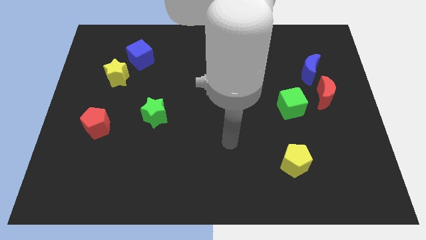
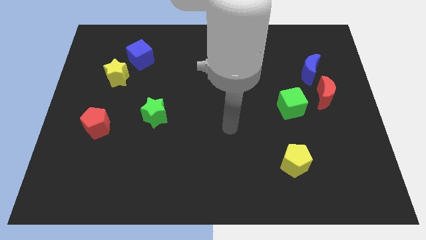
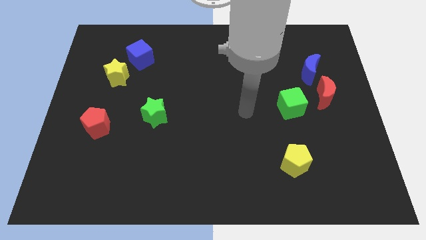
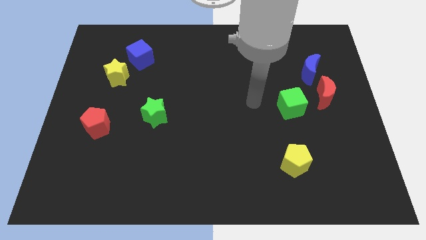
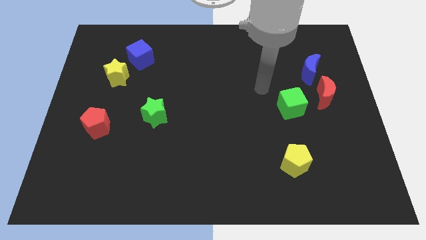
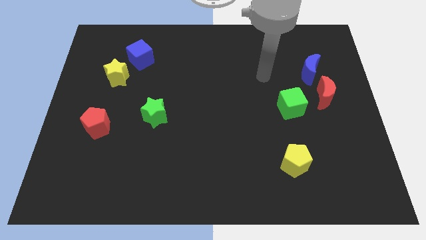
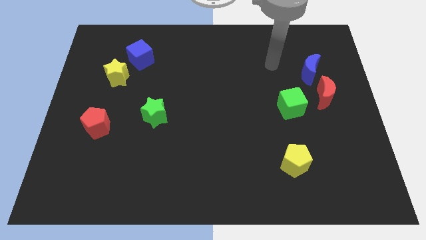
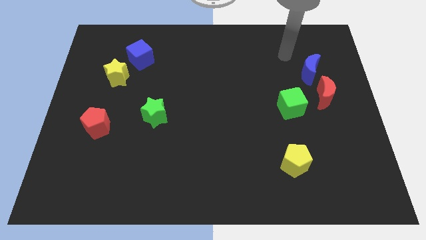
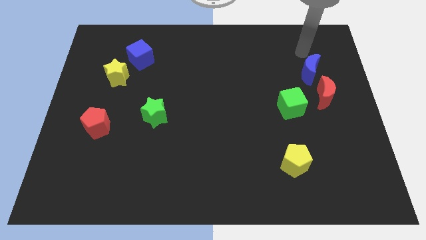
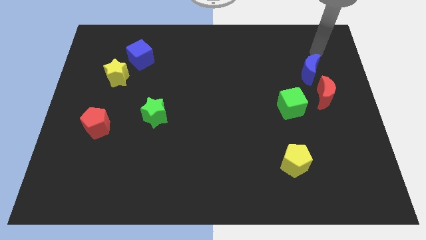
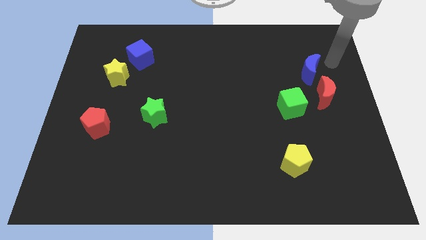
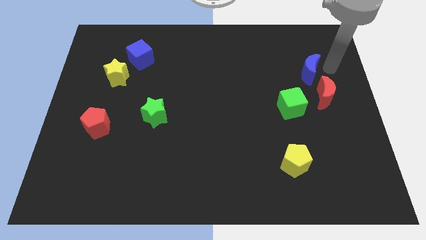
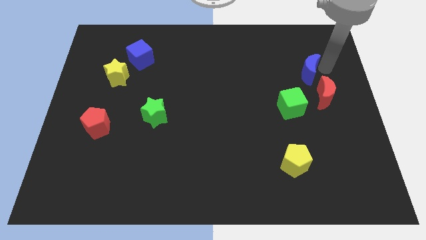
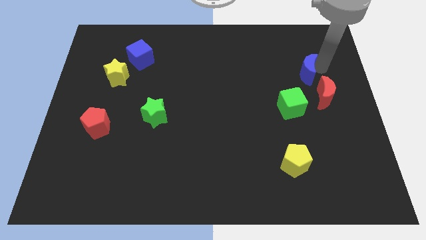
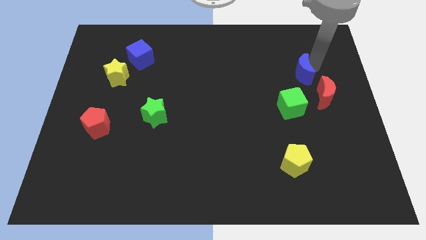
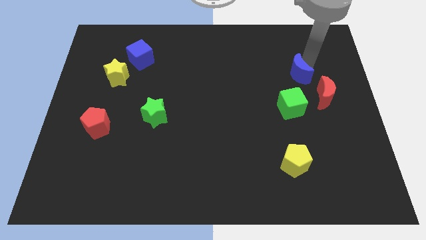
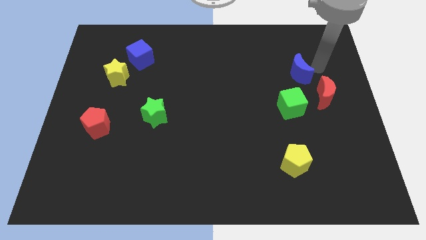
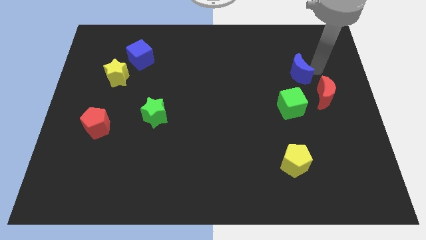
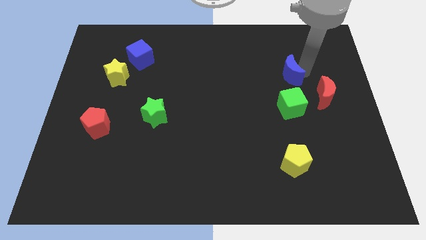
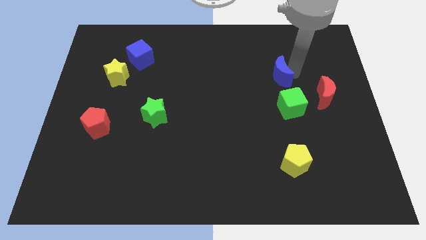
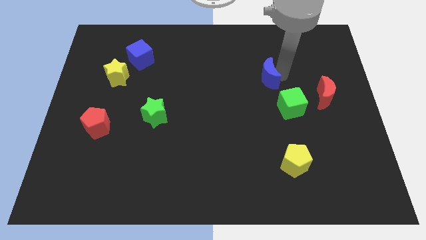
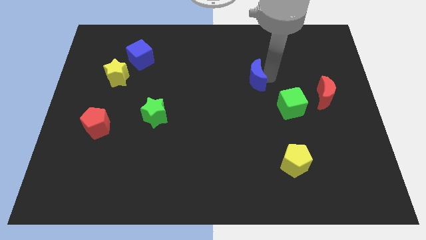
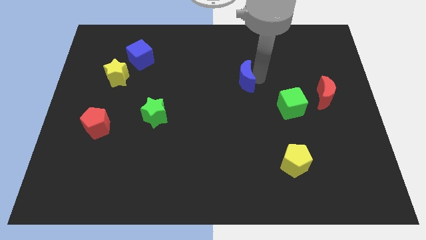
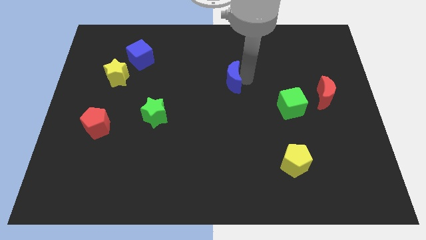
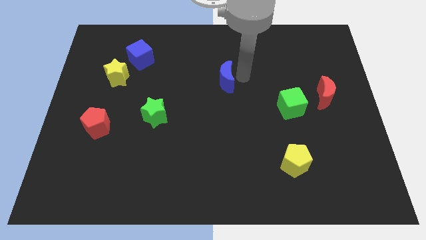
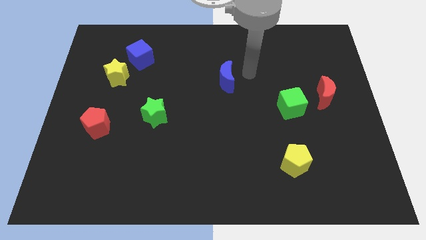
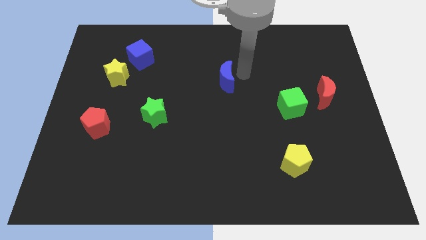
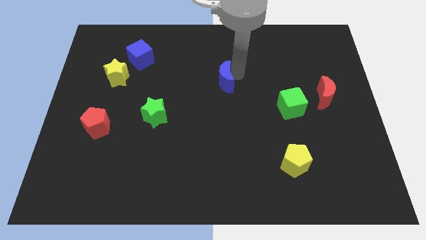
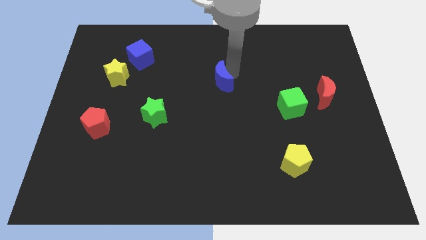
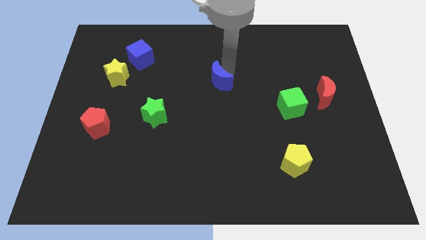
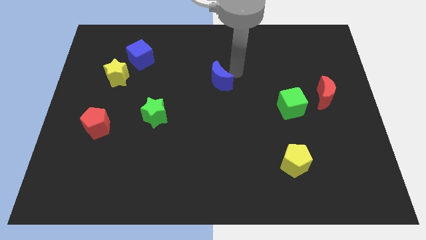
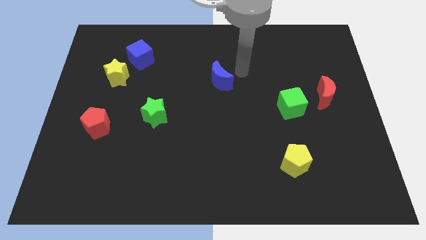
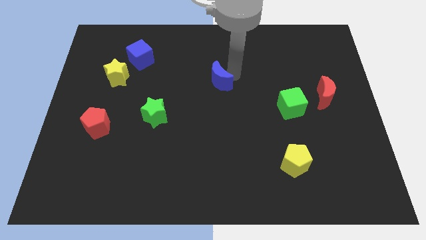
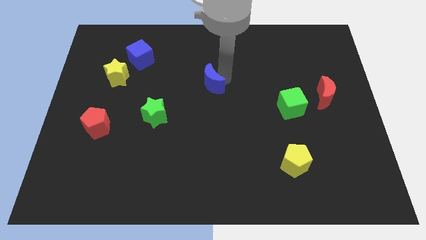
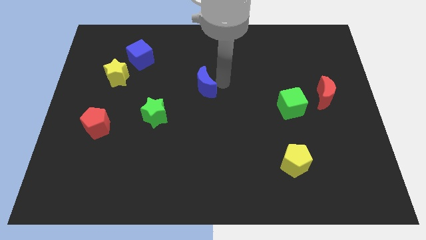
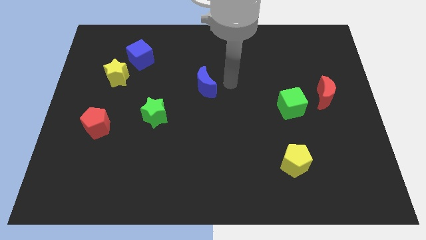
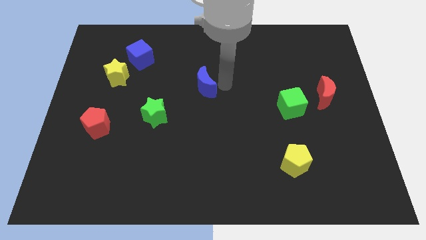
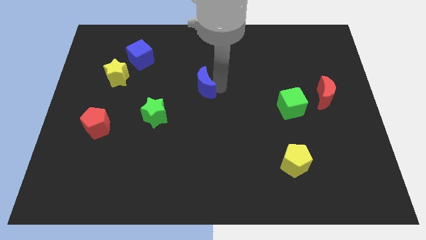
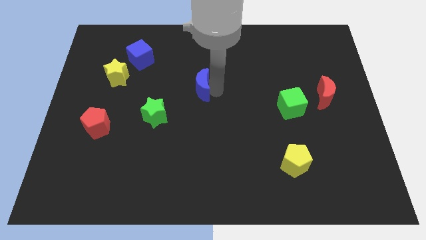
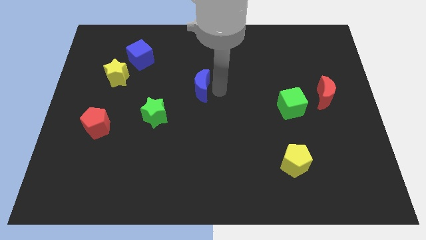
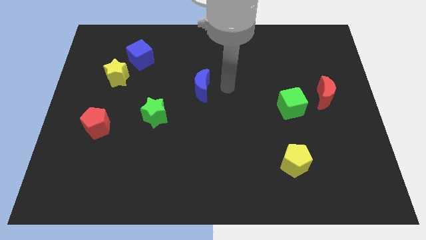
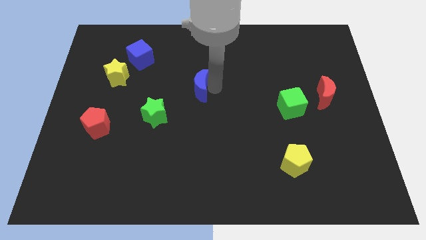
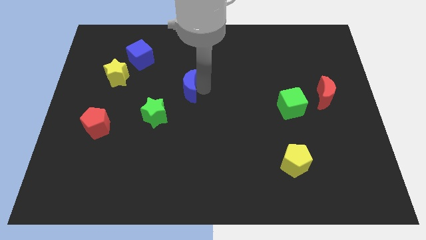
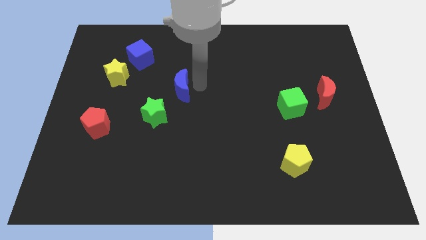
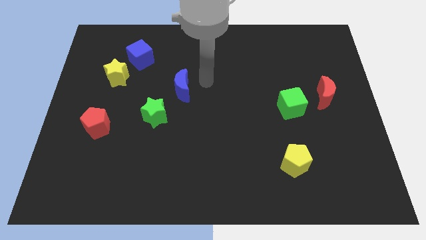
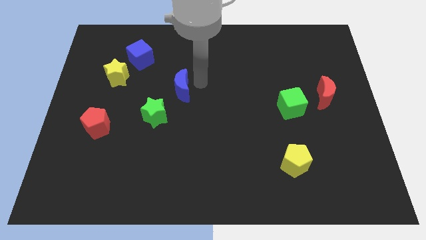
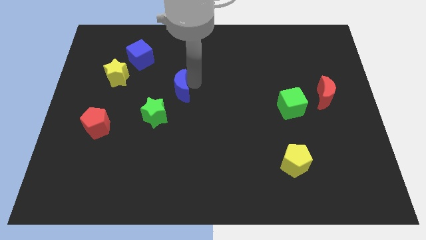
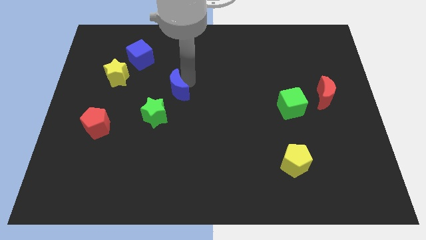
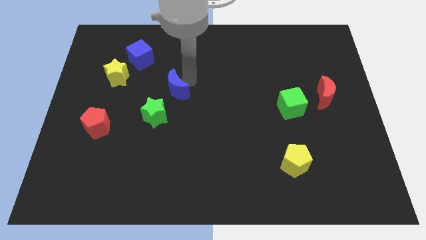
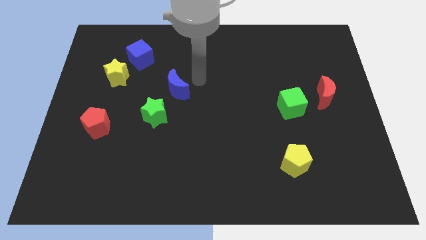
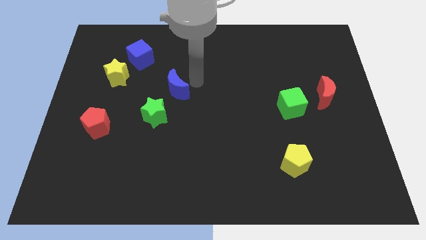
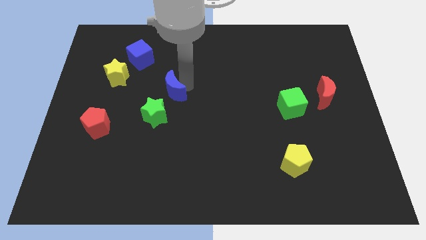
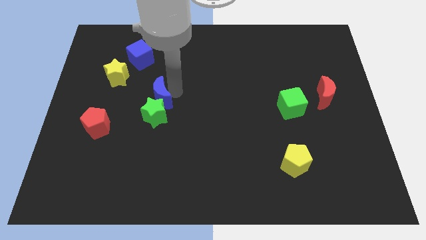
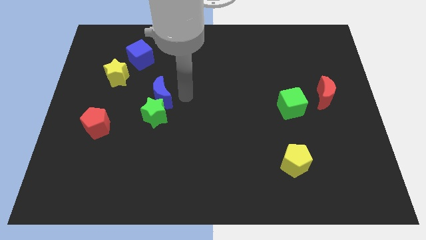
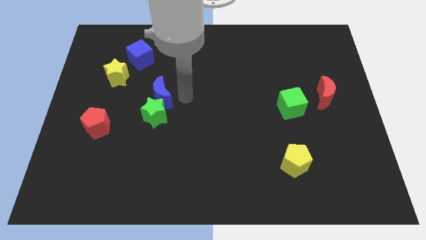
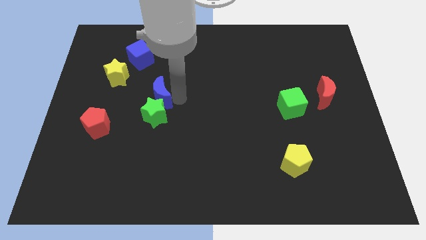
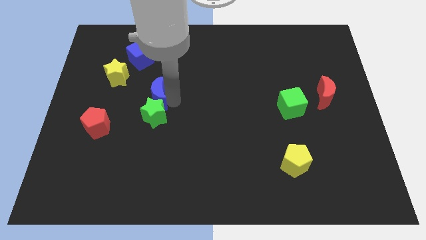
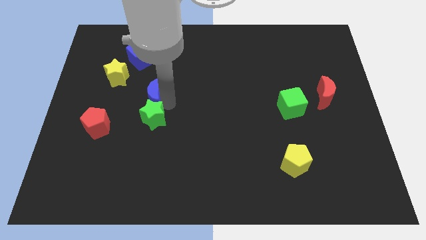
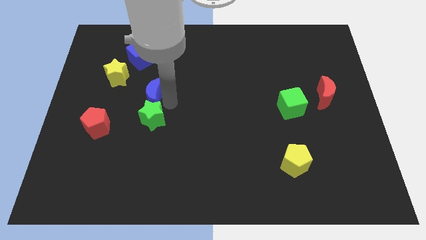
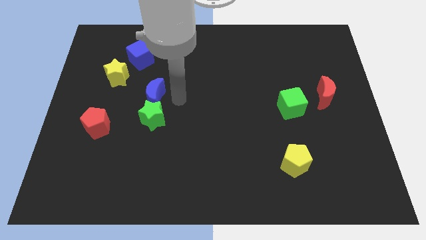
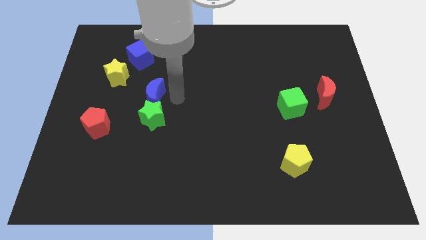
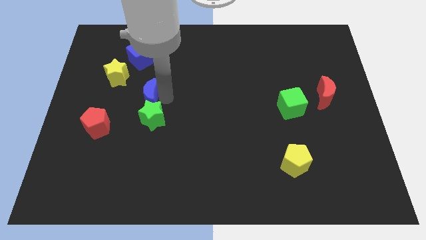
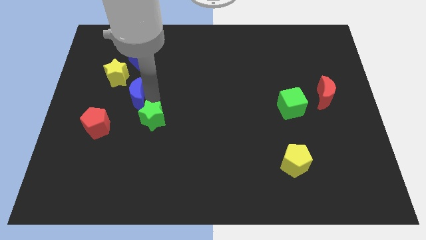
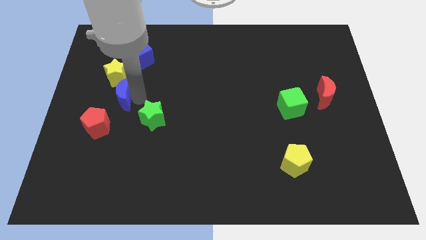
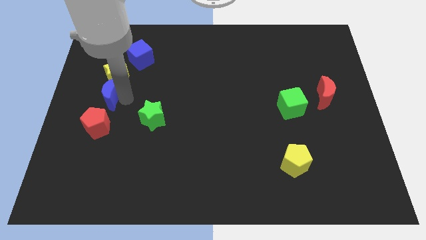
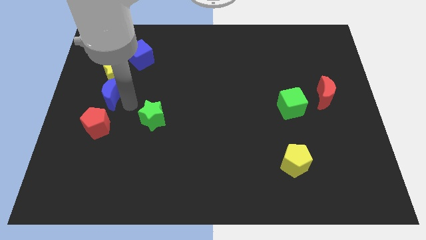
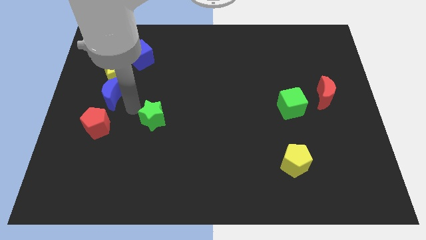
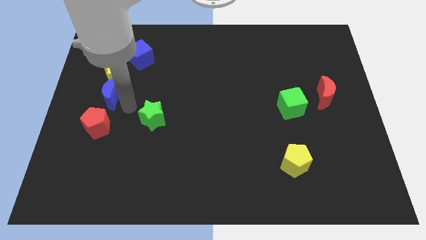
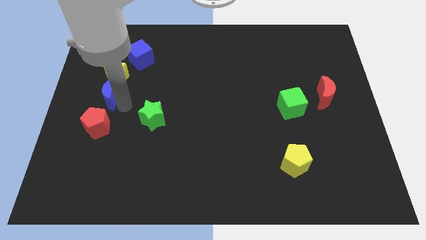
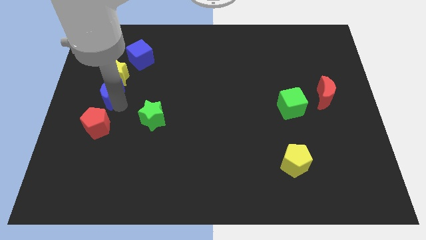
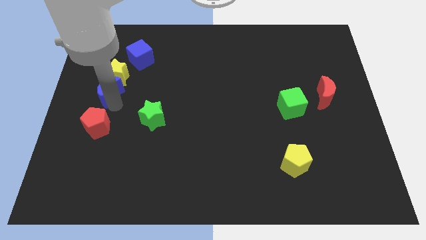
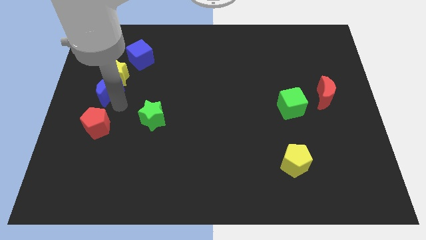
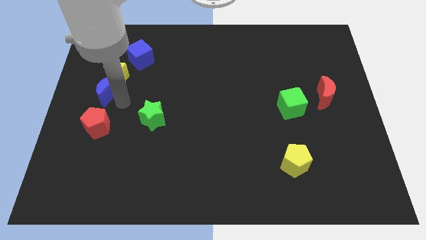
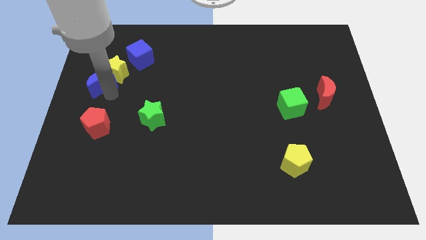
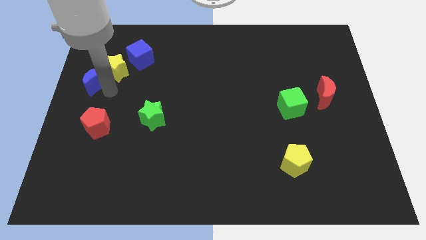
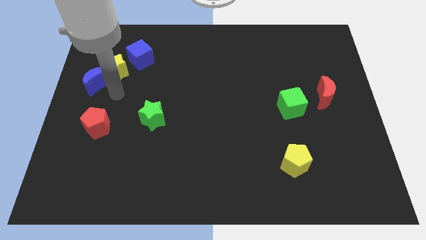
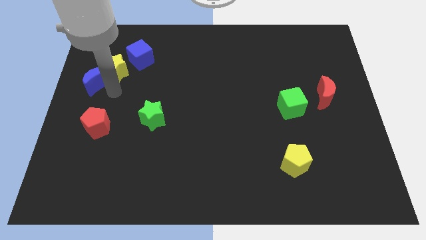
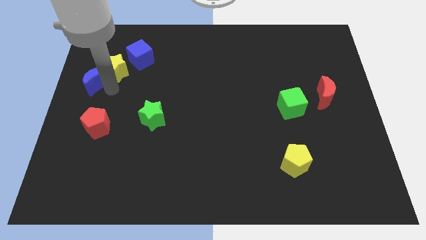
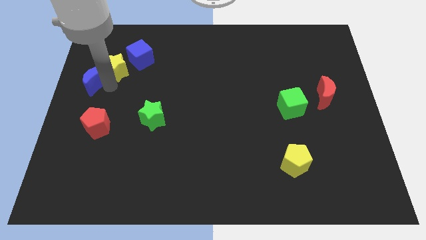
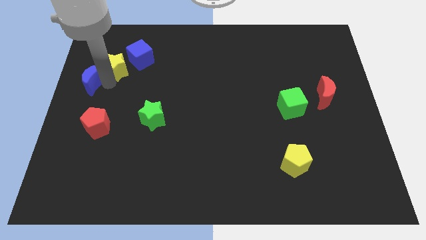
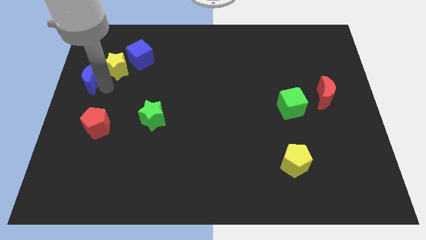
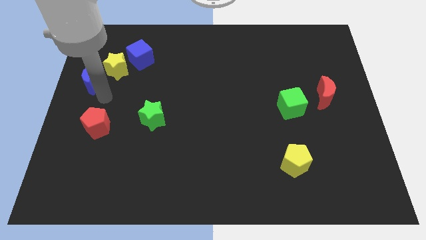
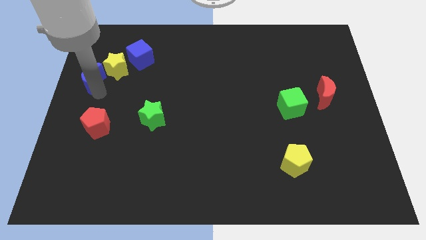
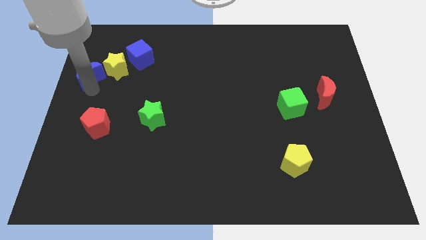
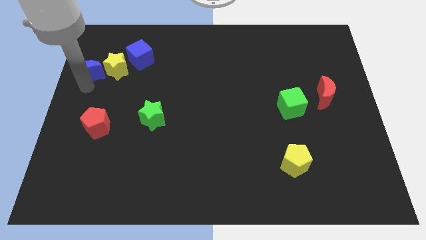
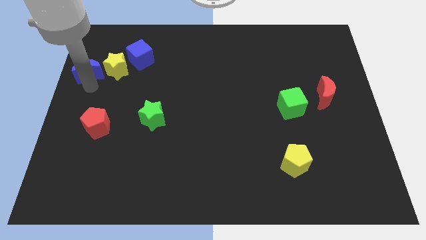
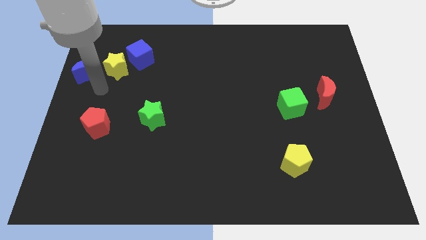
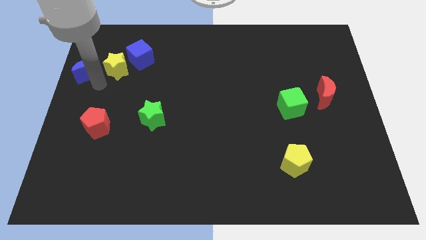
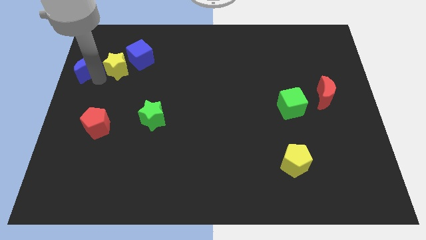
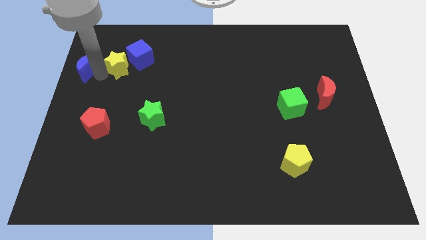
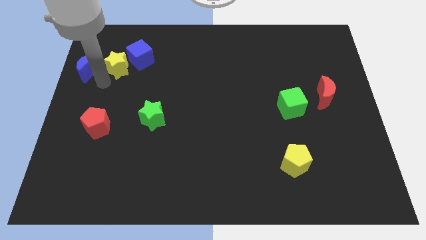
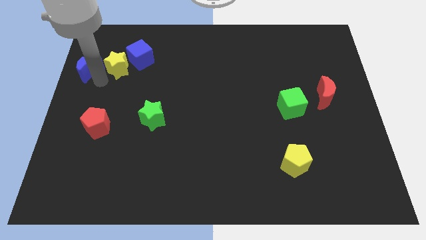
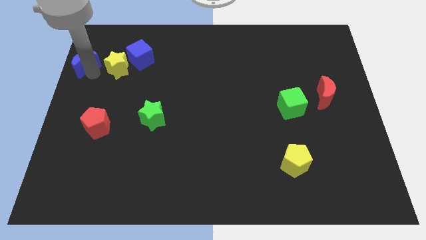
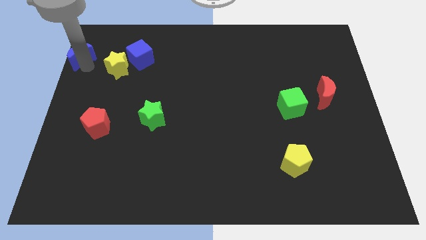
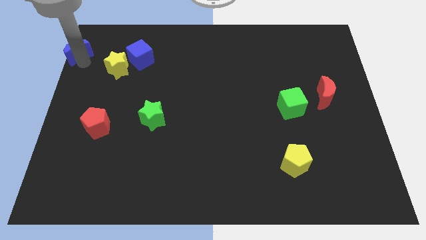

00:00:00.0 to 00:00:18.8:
push the blue moon to the top left
